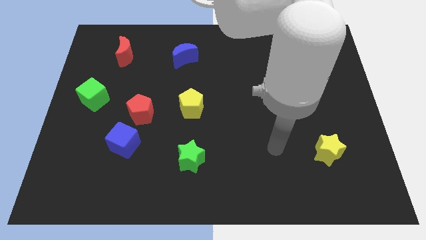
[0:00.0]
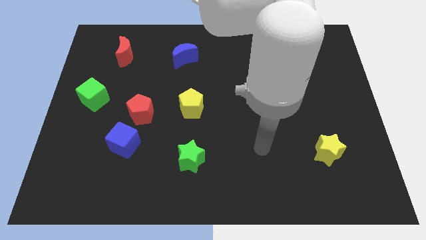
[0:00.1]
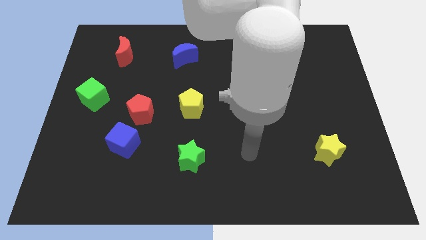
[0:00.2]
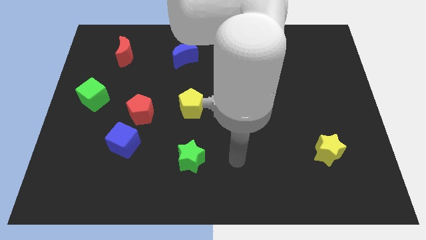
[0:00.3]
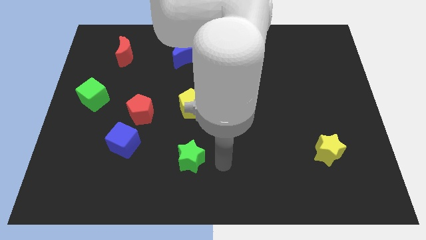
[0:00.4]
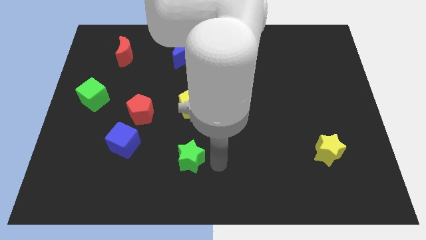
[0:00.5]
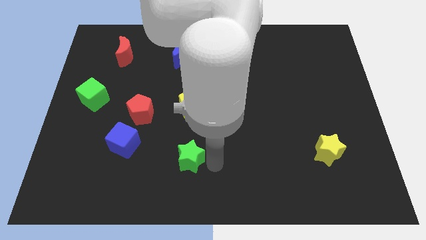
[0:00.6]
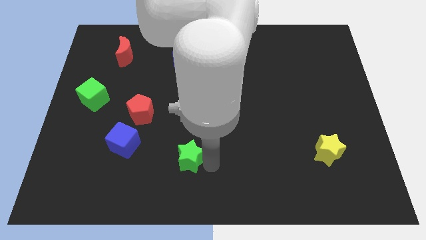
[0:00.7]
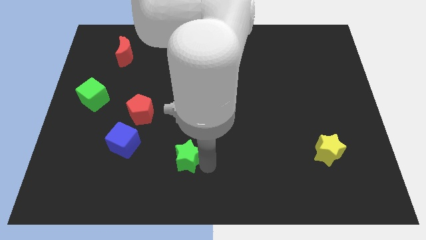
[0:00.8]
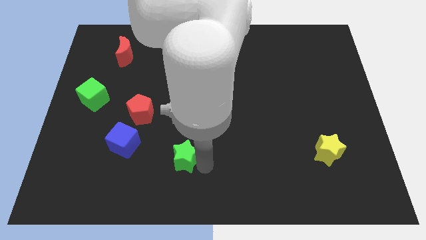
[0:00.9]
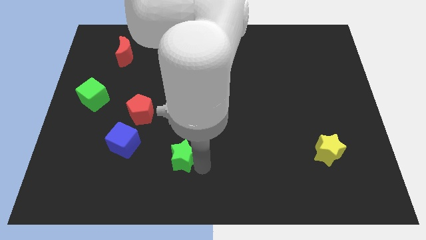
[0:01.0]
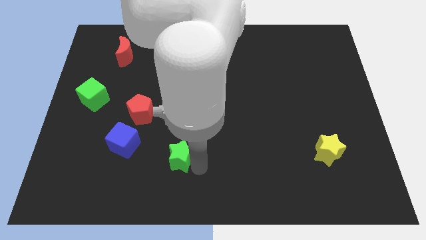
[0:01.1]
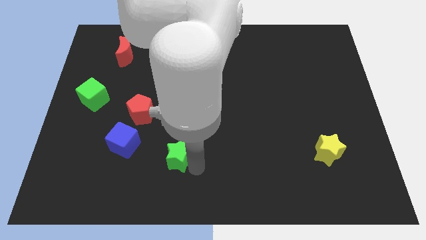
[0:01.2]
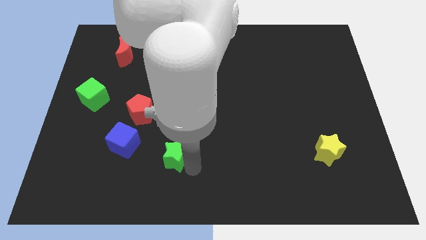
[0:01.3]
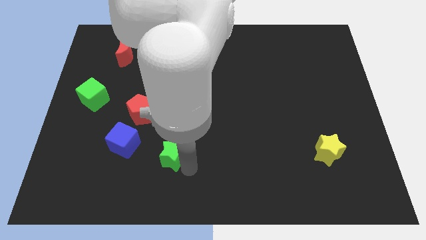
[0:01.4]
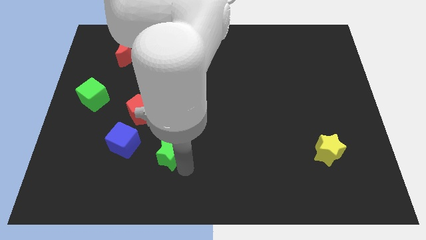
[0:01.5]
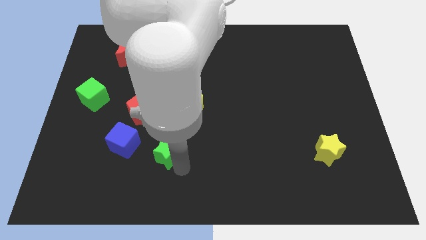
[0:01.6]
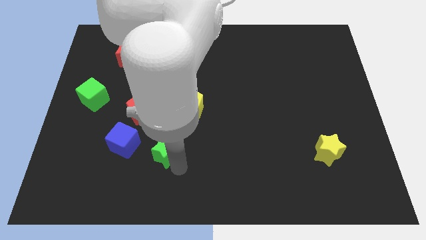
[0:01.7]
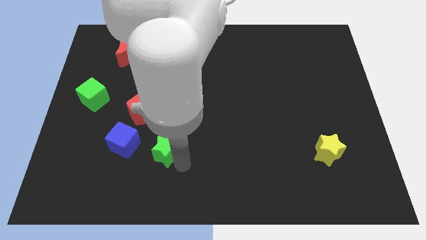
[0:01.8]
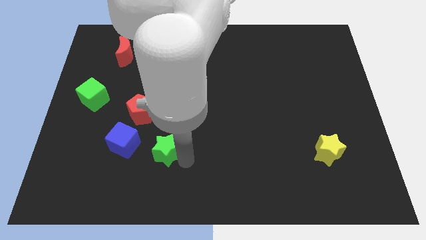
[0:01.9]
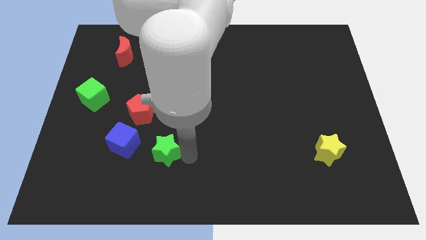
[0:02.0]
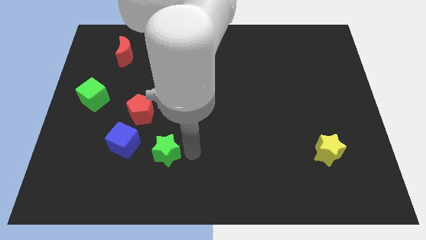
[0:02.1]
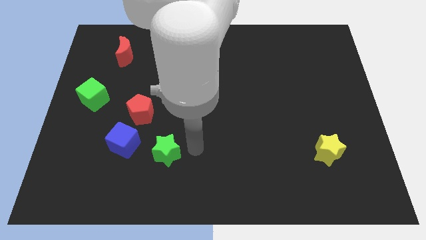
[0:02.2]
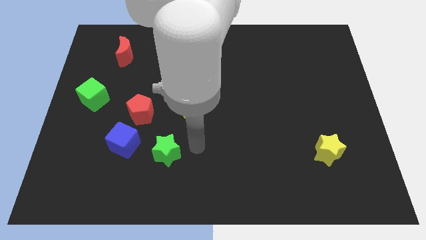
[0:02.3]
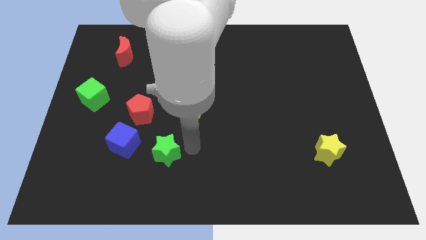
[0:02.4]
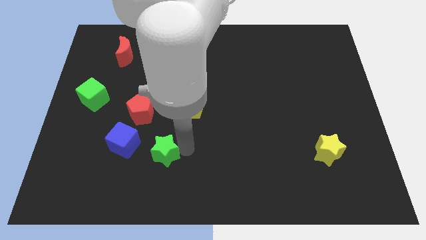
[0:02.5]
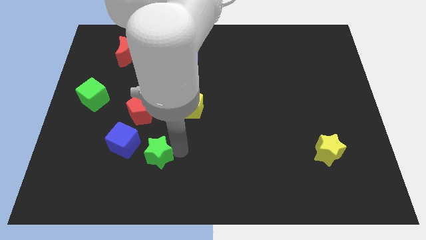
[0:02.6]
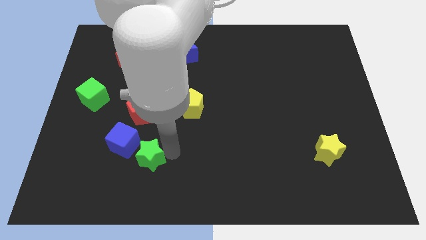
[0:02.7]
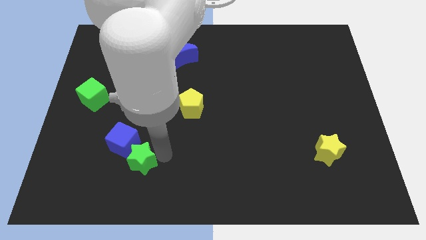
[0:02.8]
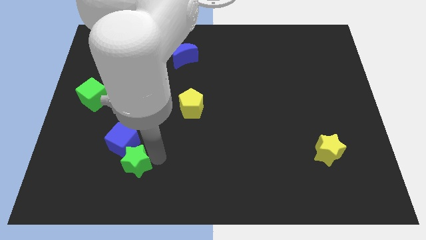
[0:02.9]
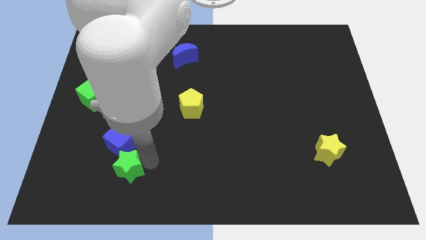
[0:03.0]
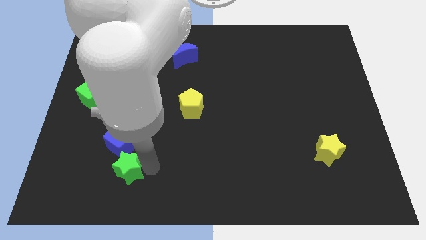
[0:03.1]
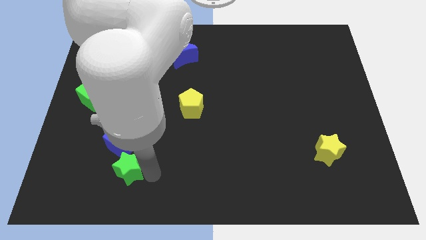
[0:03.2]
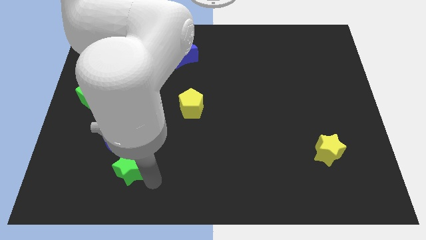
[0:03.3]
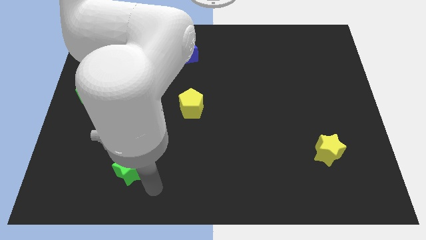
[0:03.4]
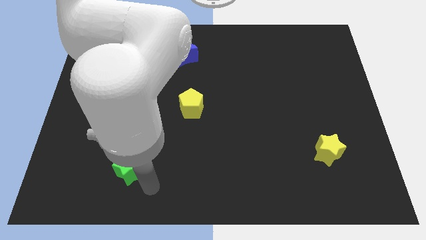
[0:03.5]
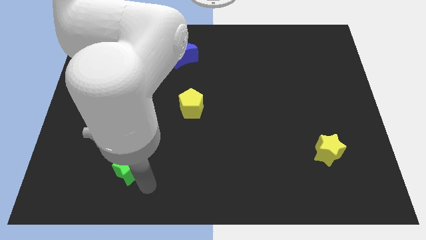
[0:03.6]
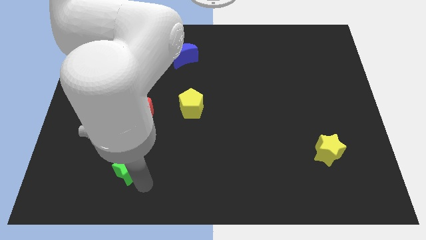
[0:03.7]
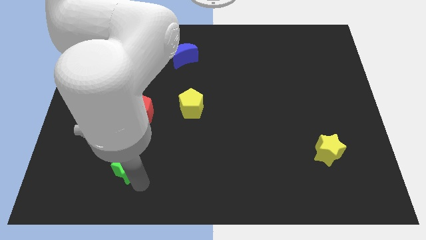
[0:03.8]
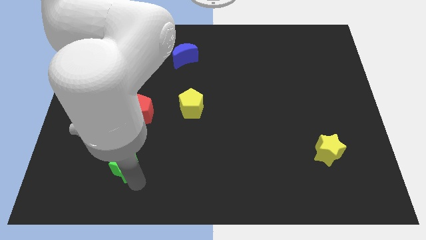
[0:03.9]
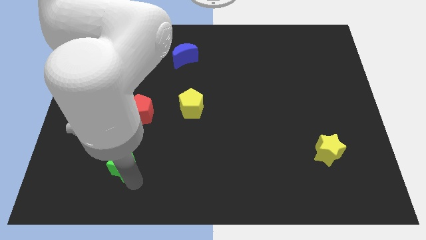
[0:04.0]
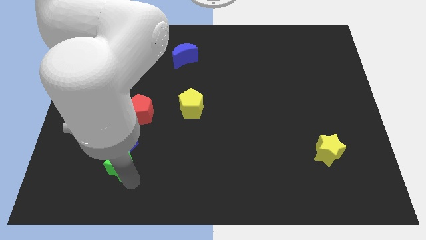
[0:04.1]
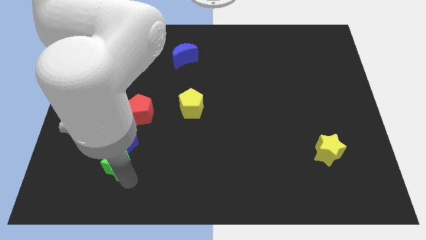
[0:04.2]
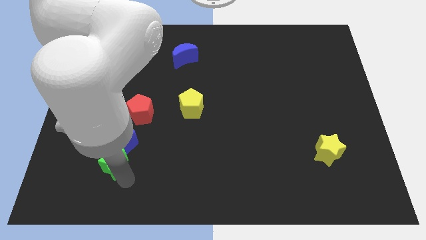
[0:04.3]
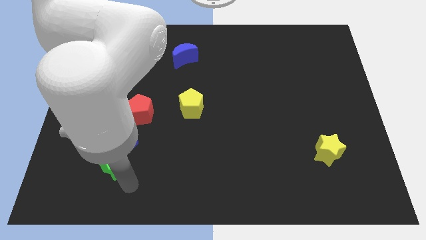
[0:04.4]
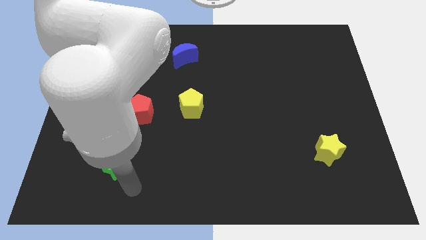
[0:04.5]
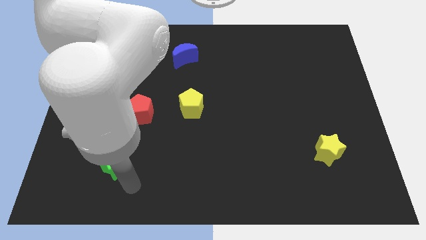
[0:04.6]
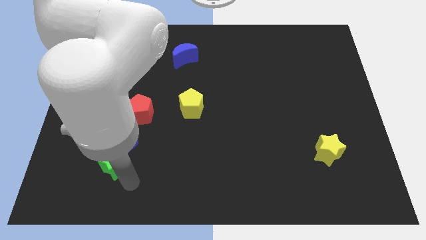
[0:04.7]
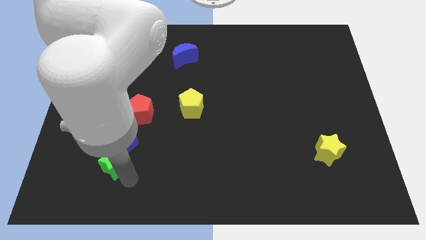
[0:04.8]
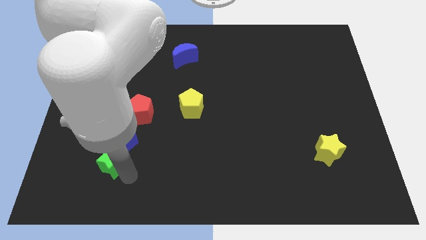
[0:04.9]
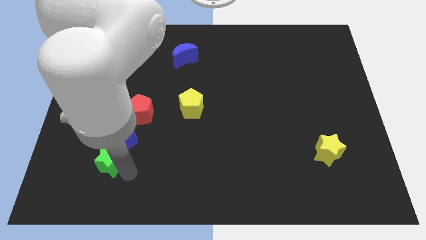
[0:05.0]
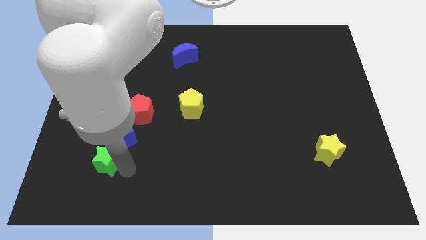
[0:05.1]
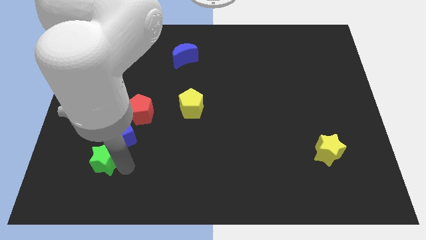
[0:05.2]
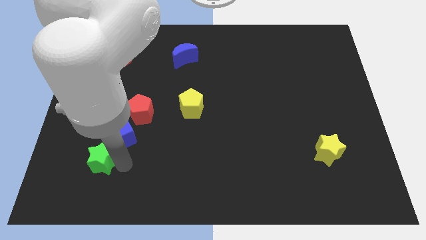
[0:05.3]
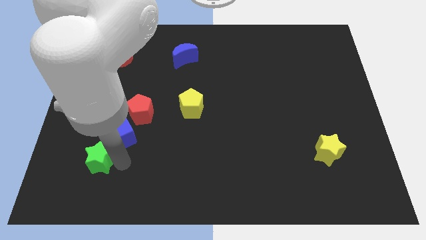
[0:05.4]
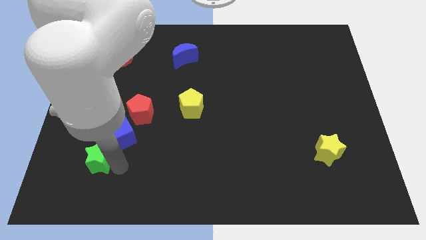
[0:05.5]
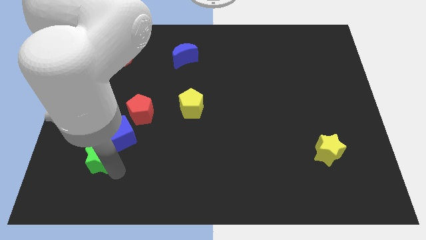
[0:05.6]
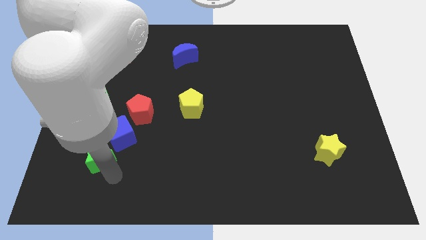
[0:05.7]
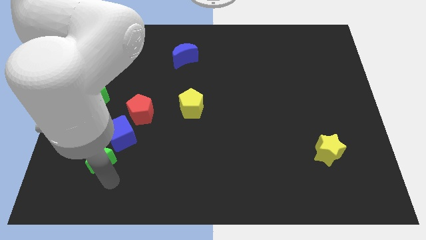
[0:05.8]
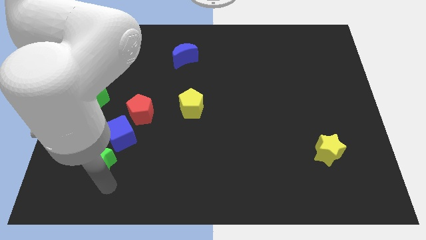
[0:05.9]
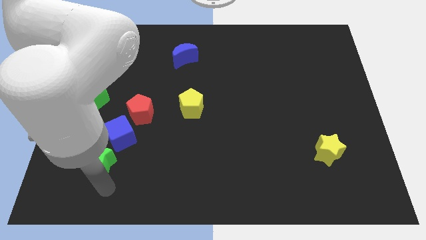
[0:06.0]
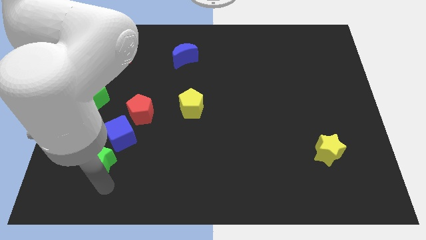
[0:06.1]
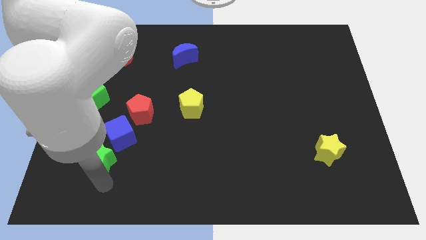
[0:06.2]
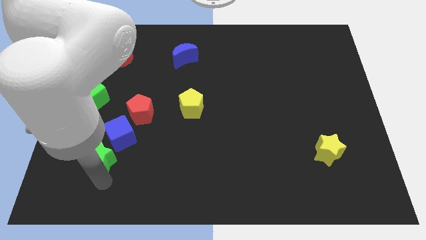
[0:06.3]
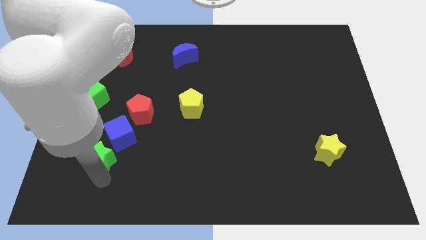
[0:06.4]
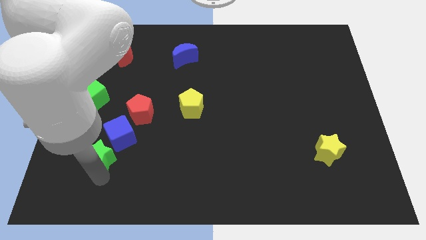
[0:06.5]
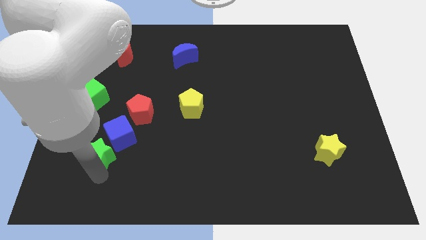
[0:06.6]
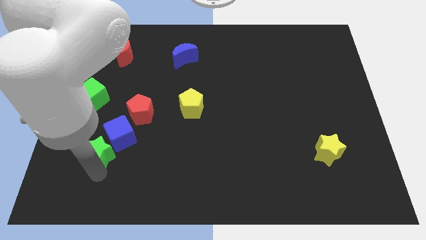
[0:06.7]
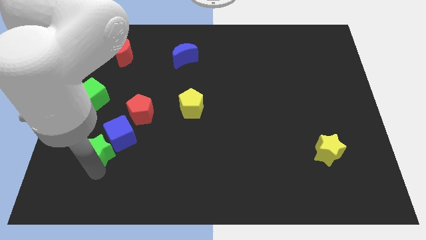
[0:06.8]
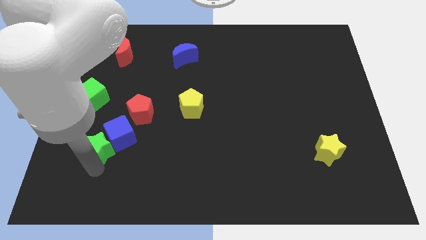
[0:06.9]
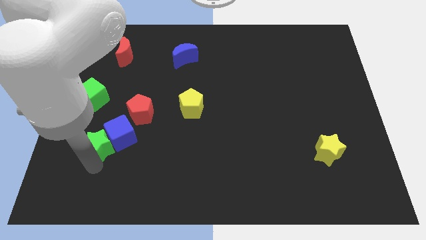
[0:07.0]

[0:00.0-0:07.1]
push the green star to the bottom left side of the red pentagon
